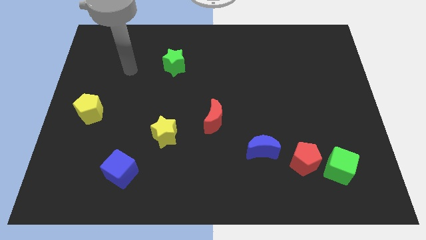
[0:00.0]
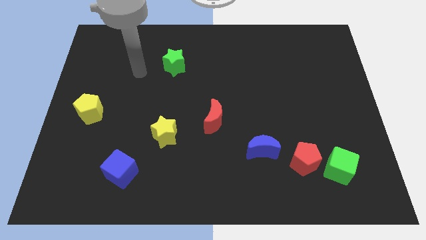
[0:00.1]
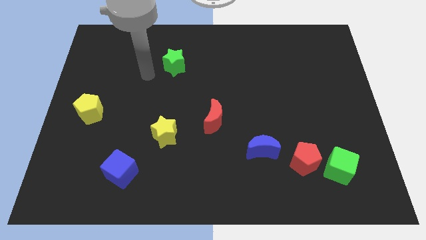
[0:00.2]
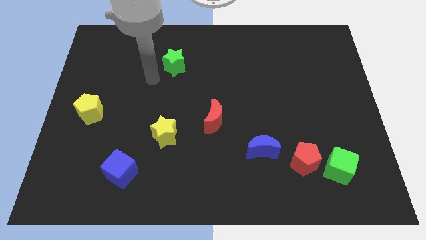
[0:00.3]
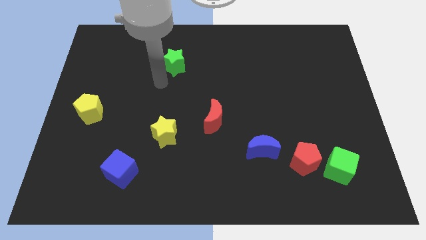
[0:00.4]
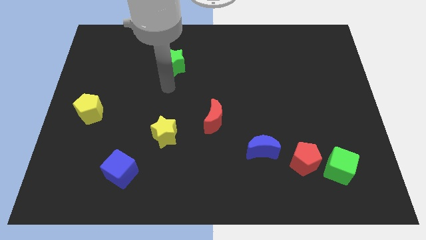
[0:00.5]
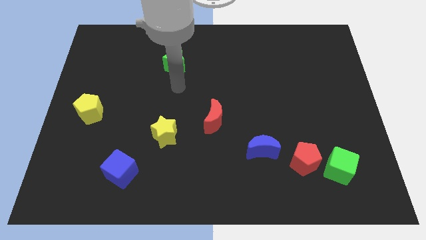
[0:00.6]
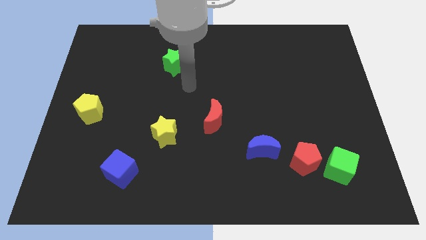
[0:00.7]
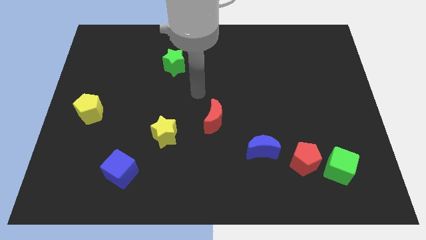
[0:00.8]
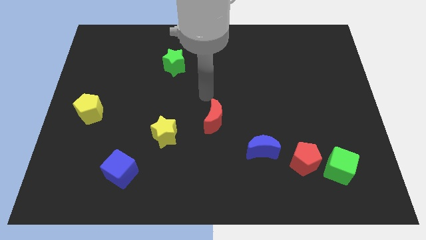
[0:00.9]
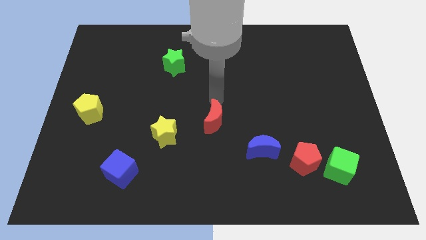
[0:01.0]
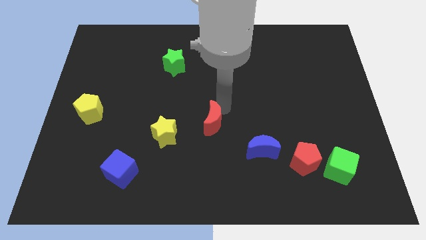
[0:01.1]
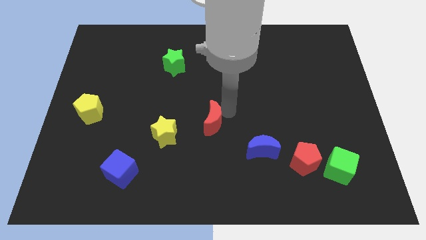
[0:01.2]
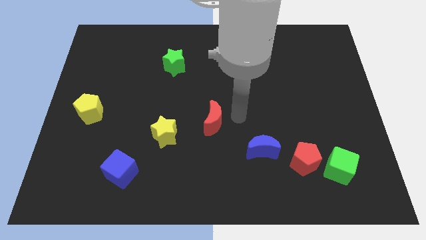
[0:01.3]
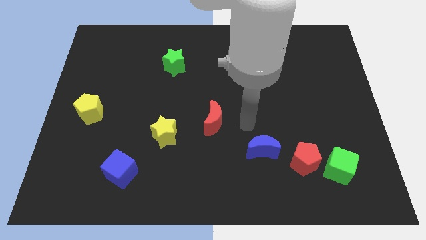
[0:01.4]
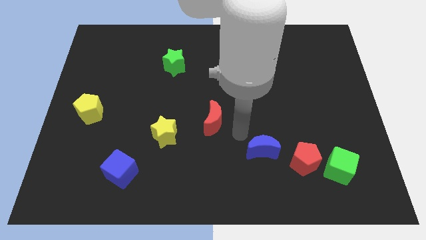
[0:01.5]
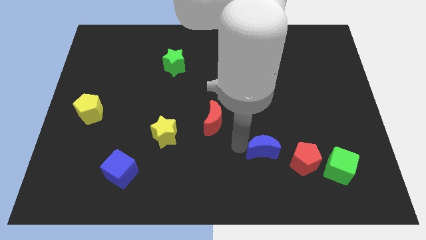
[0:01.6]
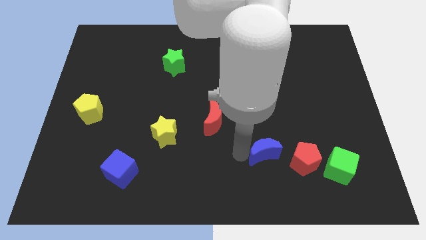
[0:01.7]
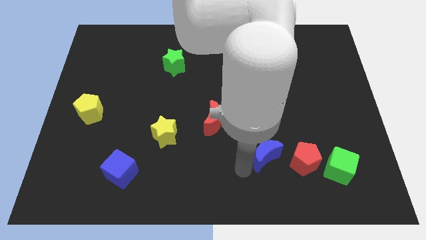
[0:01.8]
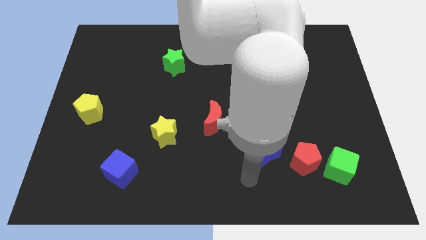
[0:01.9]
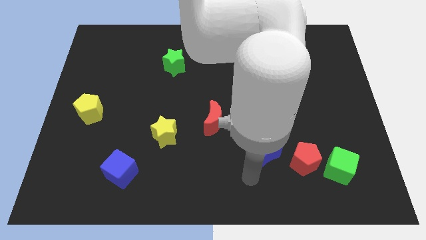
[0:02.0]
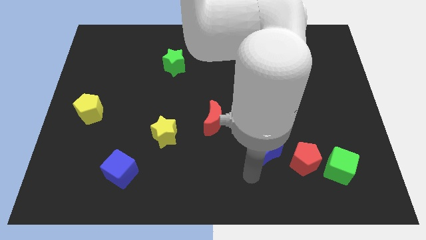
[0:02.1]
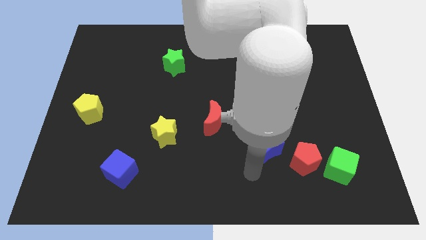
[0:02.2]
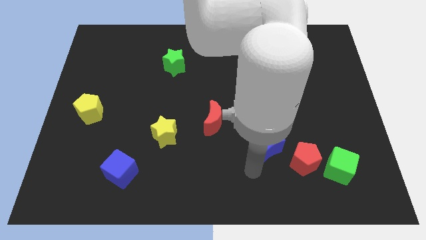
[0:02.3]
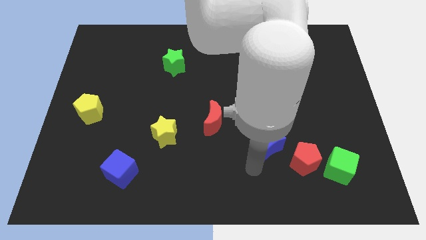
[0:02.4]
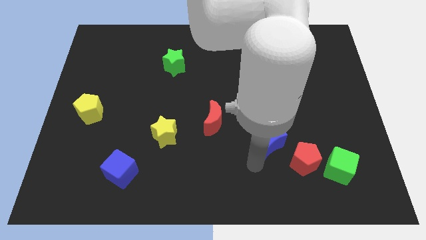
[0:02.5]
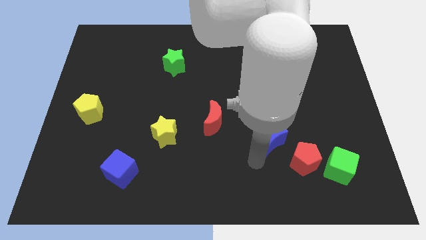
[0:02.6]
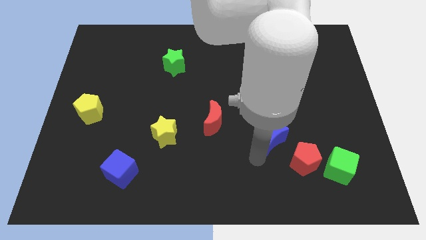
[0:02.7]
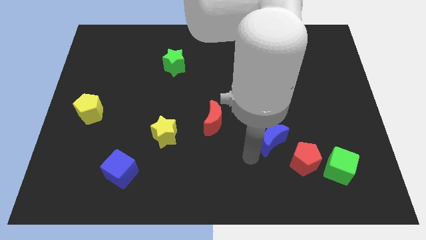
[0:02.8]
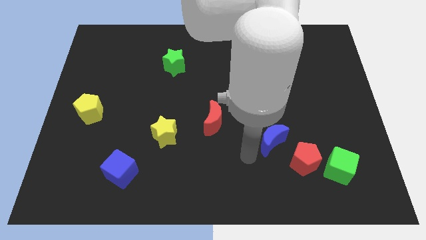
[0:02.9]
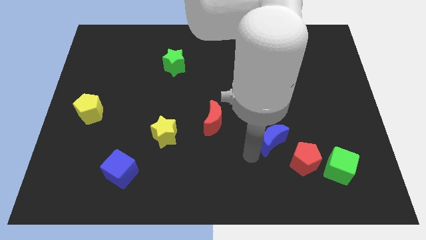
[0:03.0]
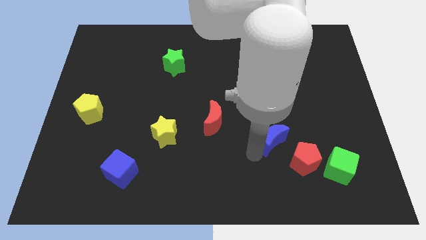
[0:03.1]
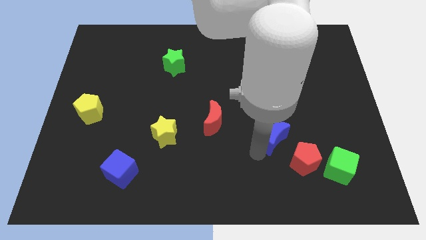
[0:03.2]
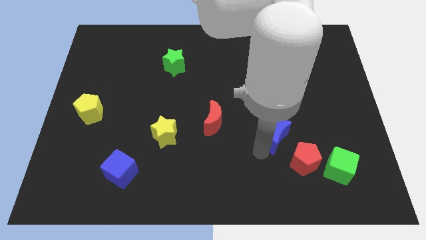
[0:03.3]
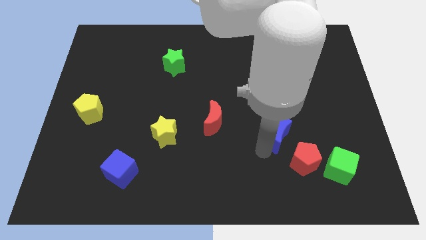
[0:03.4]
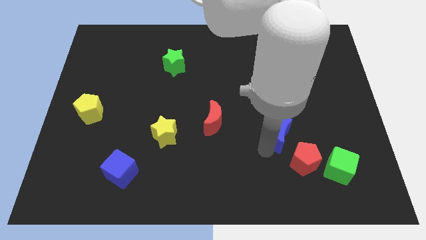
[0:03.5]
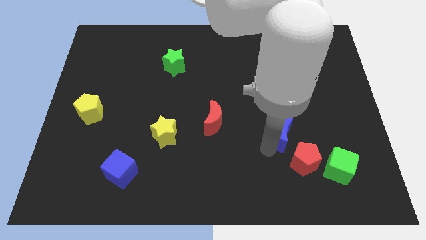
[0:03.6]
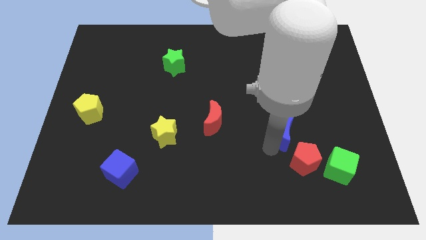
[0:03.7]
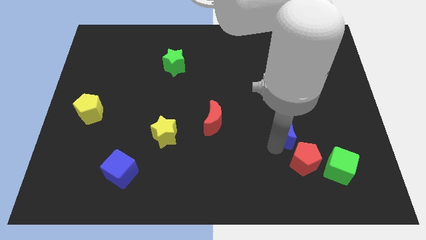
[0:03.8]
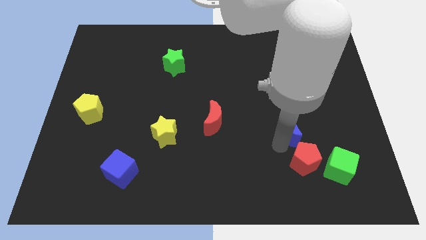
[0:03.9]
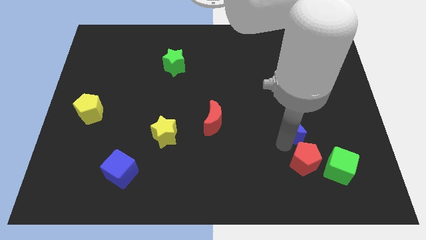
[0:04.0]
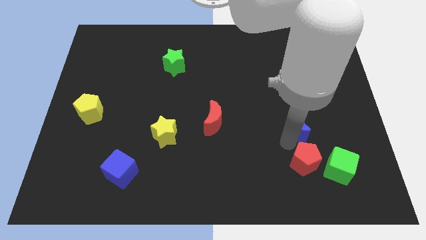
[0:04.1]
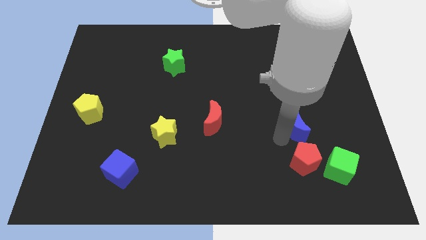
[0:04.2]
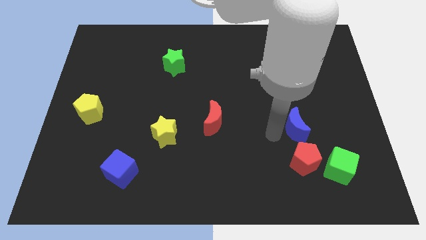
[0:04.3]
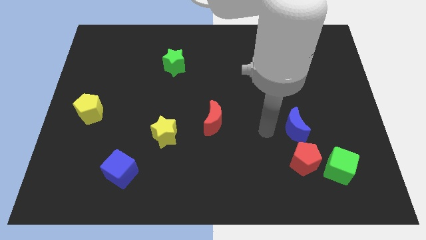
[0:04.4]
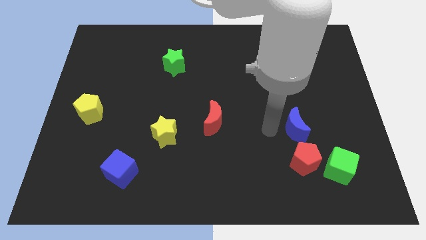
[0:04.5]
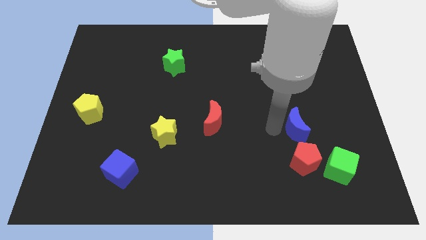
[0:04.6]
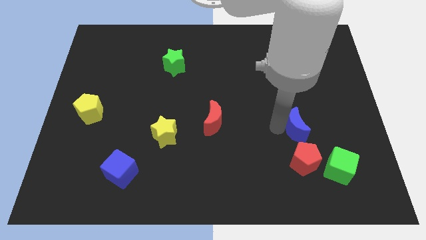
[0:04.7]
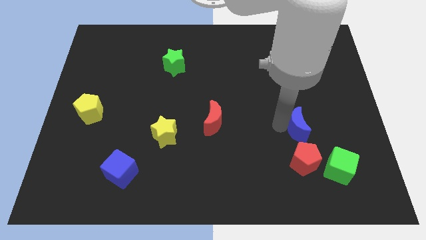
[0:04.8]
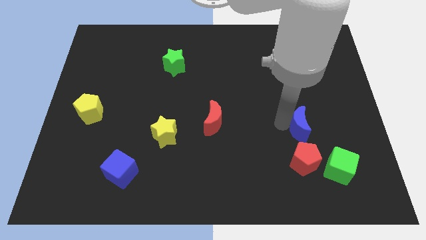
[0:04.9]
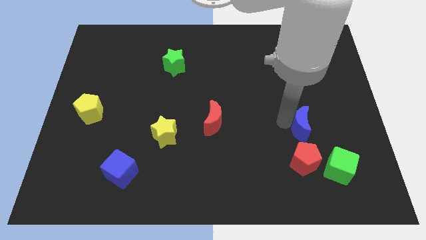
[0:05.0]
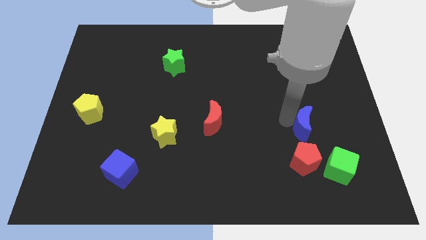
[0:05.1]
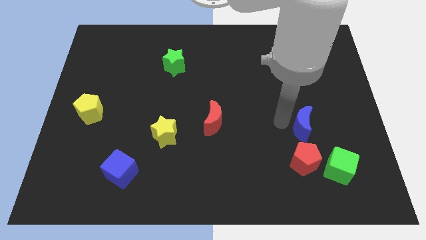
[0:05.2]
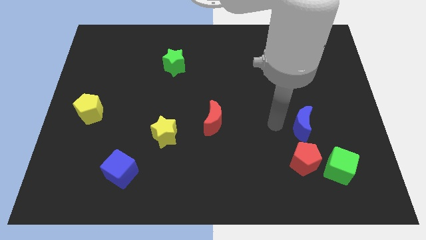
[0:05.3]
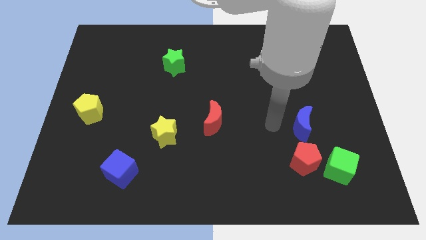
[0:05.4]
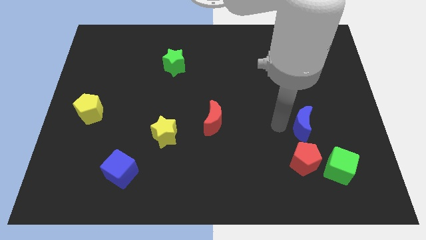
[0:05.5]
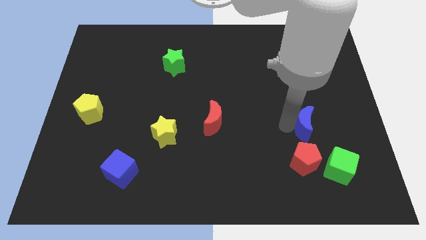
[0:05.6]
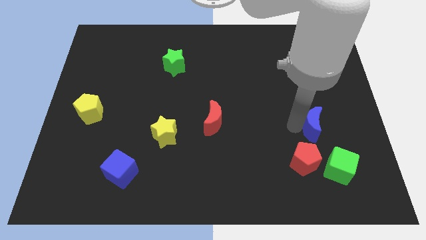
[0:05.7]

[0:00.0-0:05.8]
put the blue moon to the top of the green cube

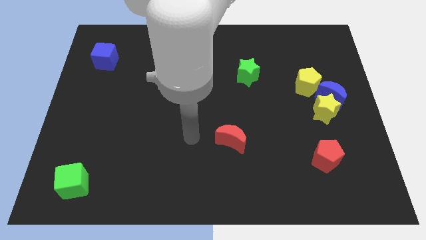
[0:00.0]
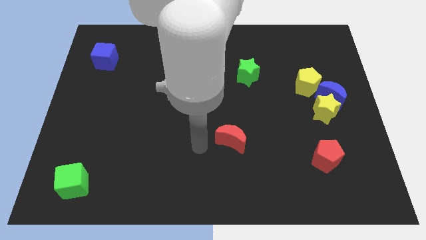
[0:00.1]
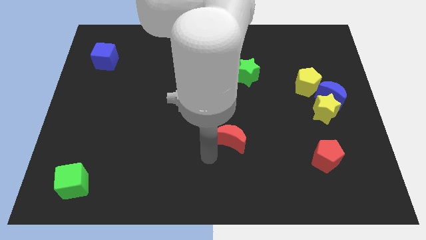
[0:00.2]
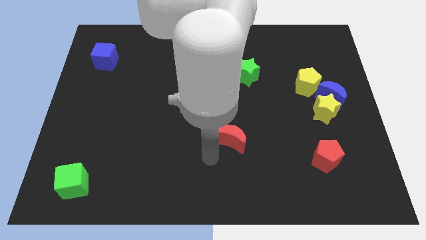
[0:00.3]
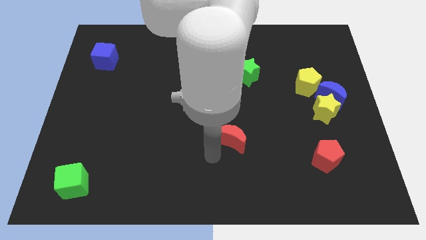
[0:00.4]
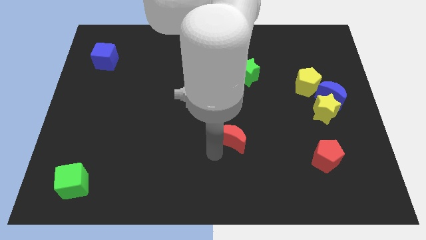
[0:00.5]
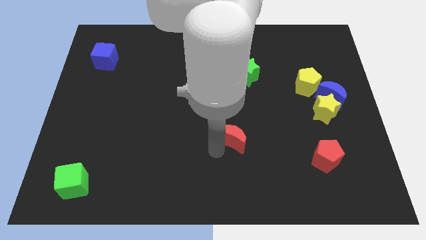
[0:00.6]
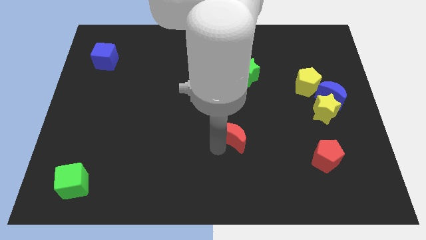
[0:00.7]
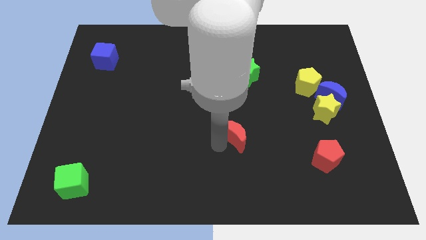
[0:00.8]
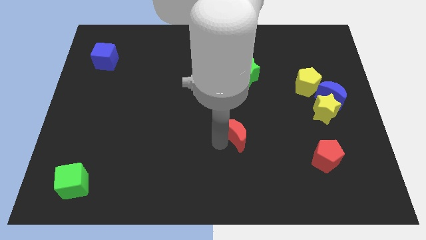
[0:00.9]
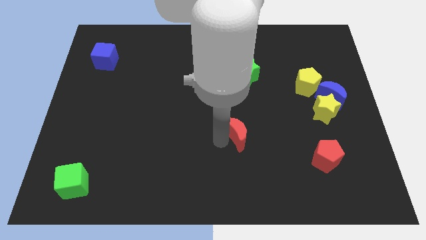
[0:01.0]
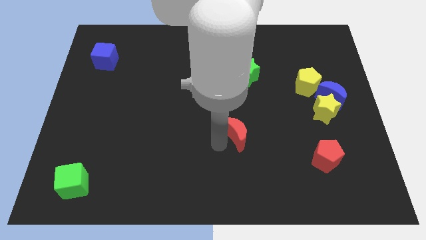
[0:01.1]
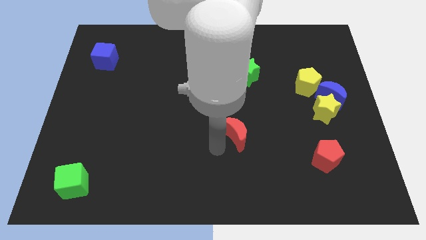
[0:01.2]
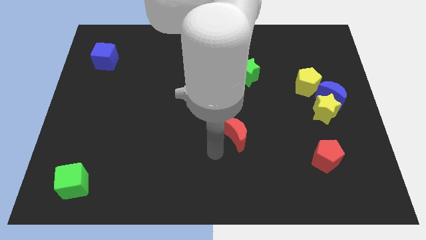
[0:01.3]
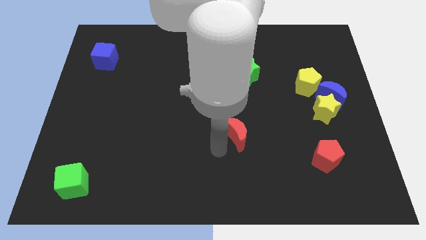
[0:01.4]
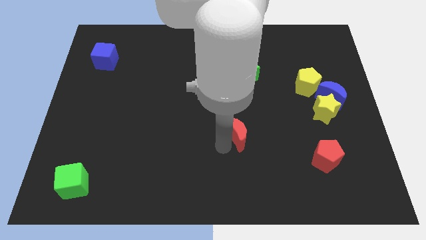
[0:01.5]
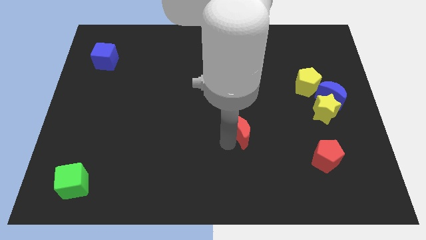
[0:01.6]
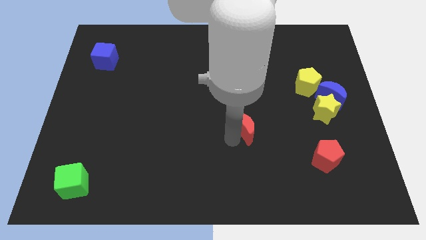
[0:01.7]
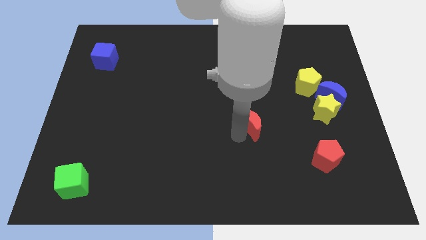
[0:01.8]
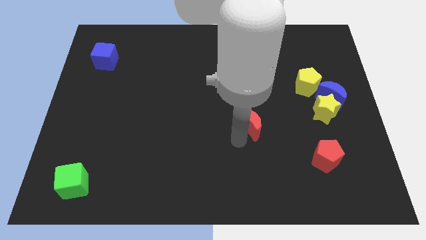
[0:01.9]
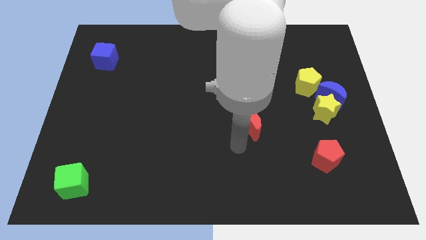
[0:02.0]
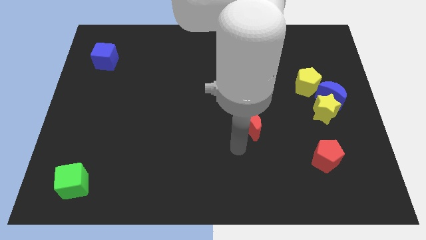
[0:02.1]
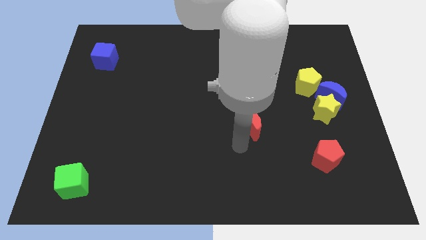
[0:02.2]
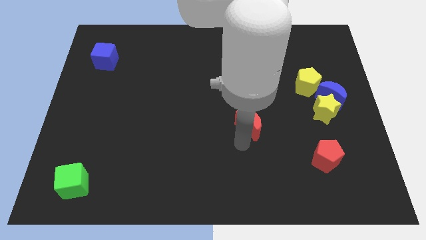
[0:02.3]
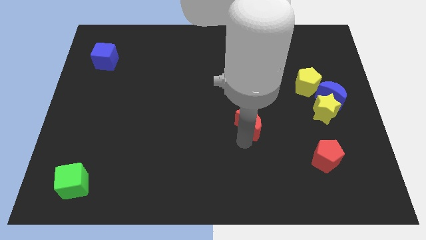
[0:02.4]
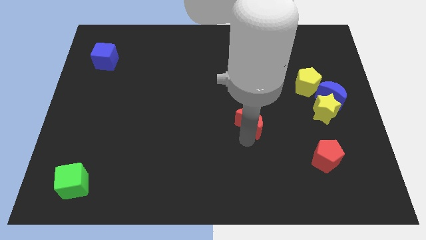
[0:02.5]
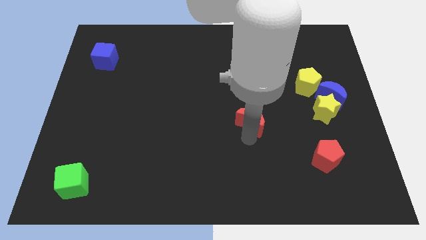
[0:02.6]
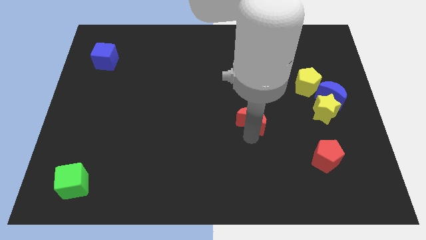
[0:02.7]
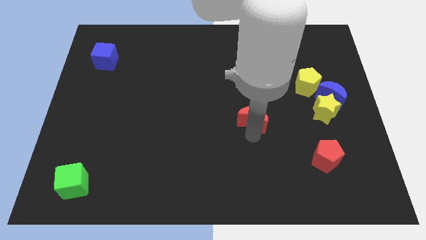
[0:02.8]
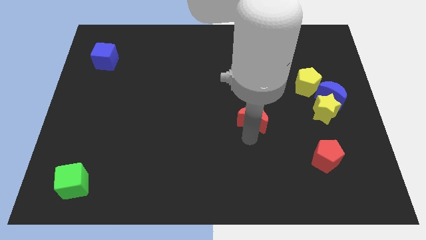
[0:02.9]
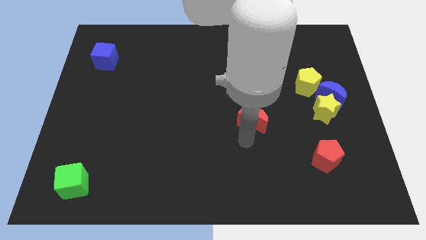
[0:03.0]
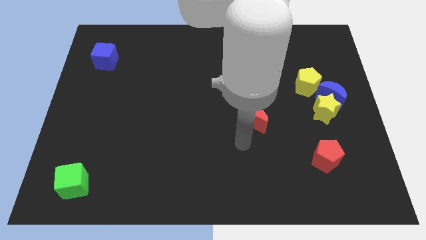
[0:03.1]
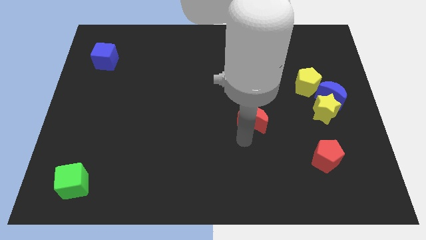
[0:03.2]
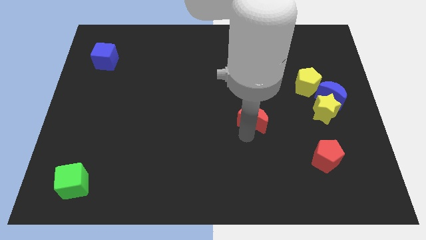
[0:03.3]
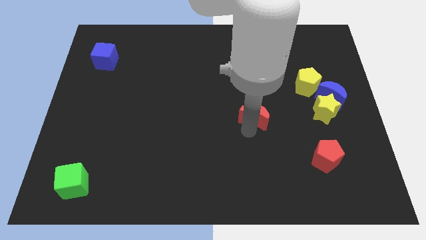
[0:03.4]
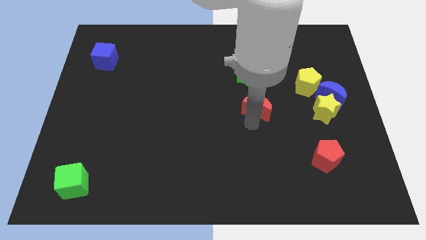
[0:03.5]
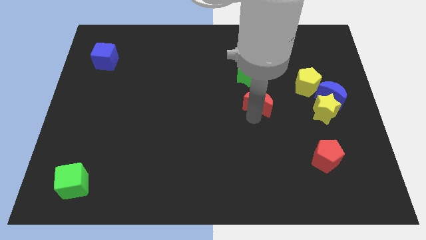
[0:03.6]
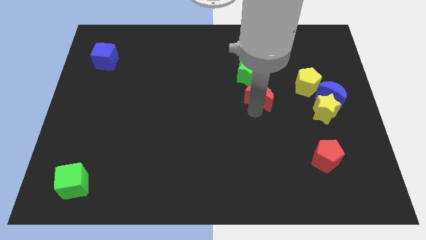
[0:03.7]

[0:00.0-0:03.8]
move the red moon to the bottom right side of the green star
